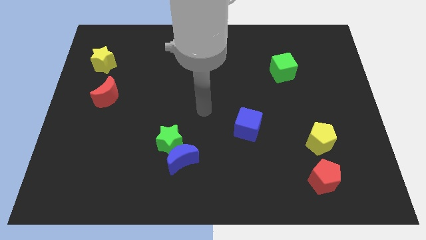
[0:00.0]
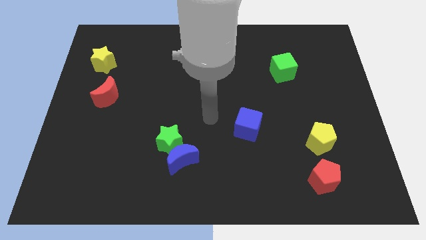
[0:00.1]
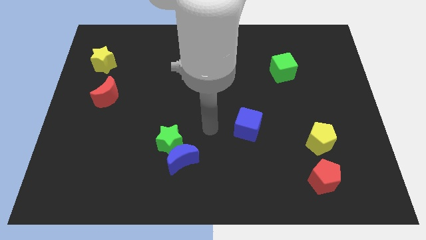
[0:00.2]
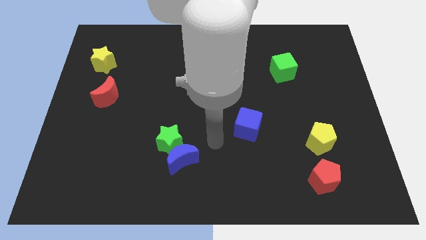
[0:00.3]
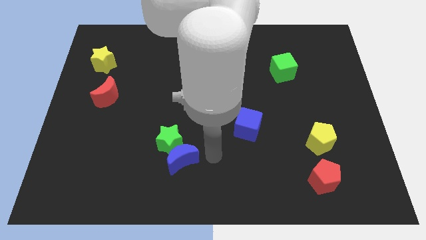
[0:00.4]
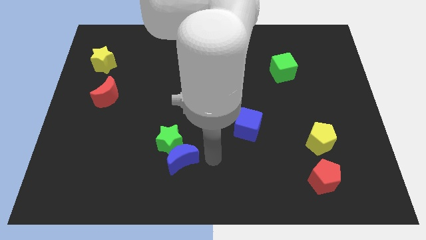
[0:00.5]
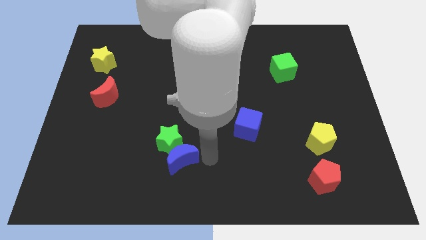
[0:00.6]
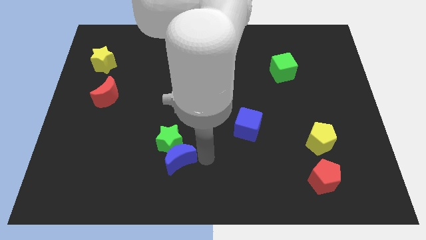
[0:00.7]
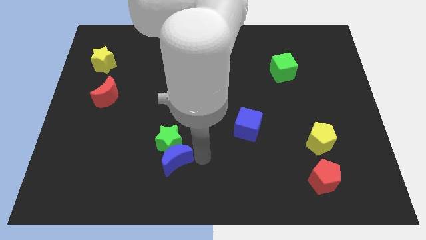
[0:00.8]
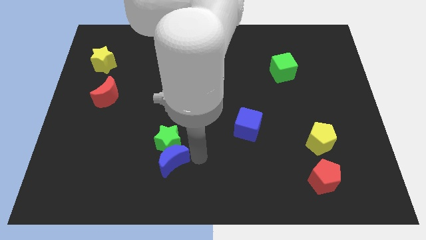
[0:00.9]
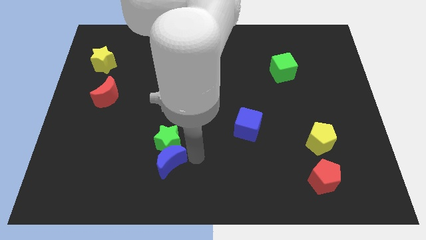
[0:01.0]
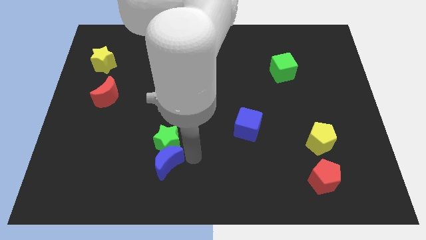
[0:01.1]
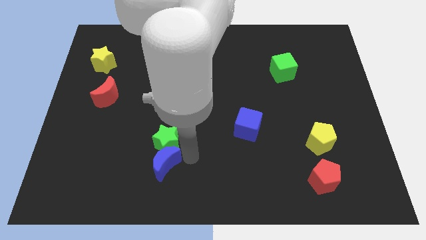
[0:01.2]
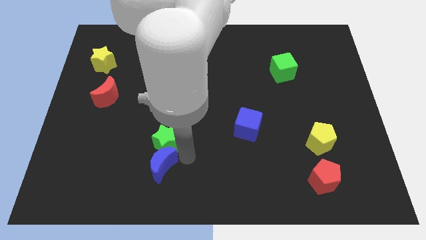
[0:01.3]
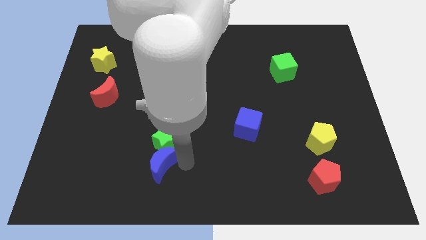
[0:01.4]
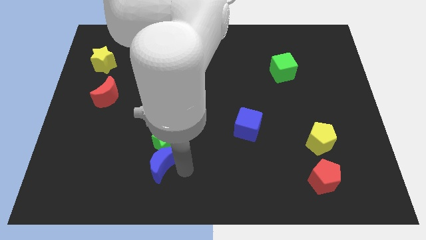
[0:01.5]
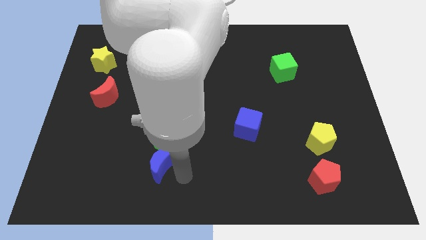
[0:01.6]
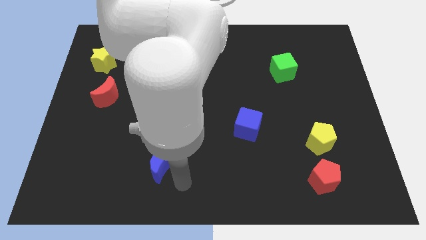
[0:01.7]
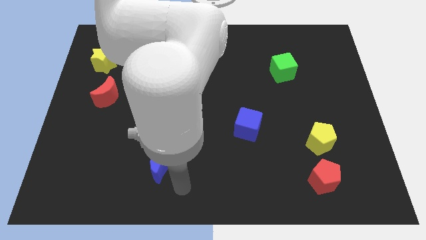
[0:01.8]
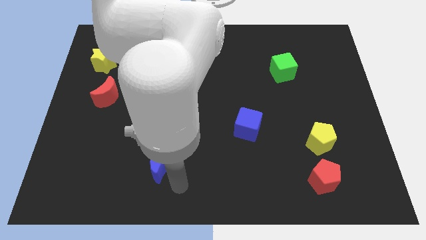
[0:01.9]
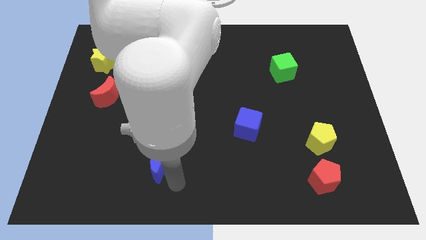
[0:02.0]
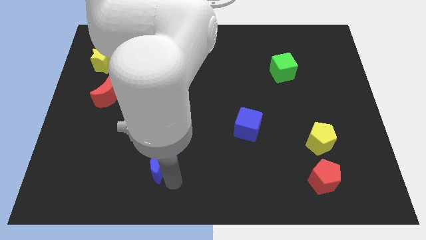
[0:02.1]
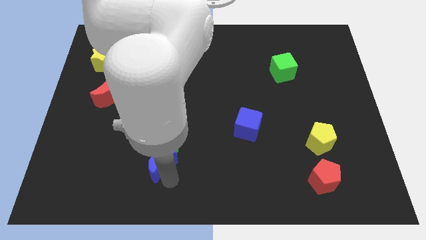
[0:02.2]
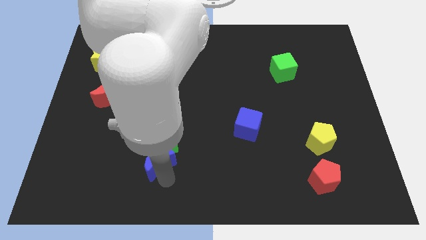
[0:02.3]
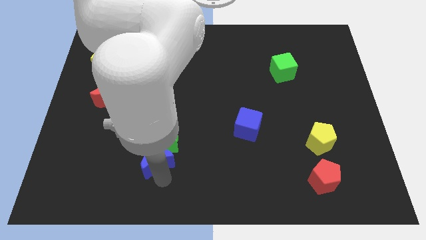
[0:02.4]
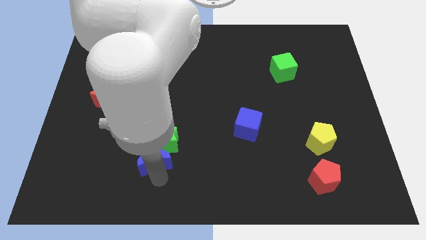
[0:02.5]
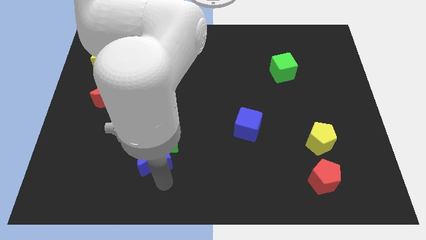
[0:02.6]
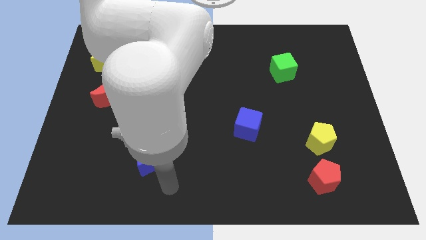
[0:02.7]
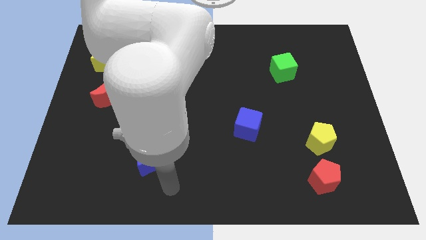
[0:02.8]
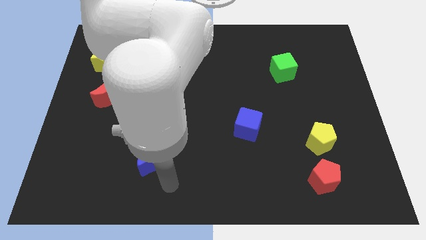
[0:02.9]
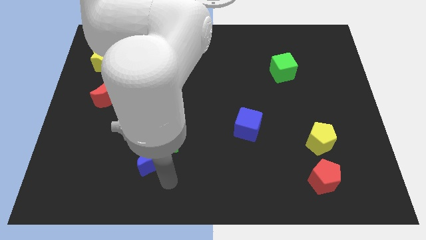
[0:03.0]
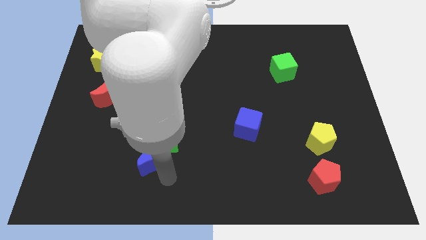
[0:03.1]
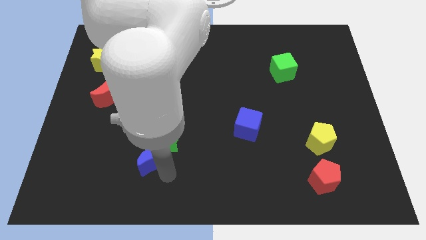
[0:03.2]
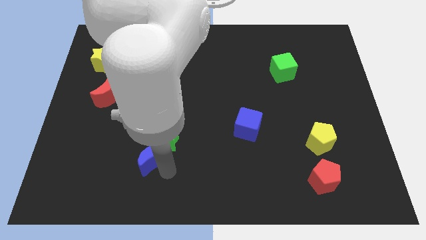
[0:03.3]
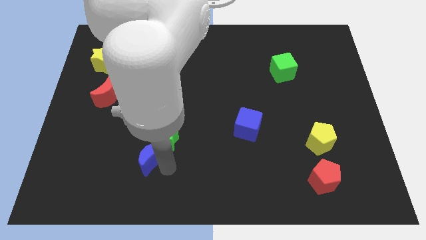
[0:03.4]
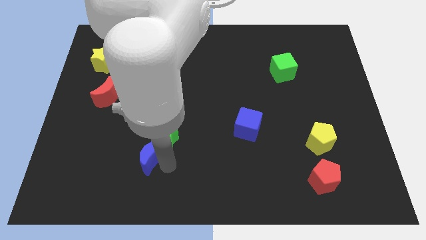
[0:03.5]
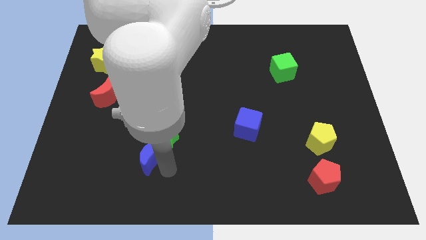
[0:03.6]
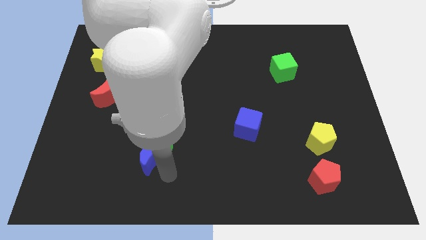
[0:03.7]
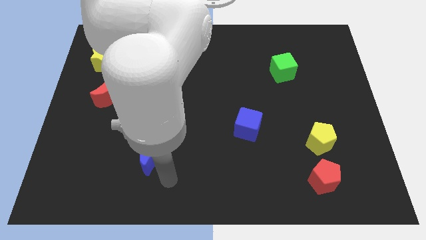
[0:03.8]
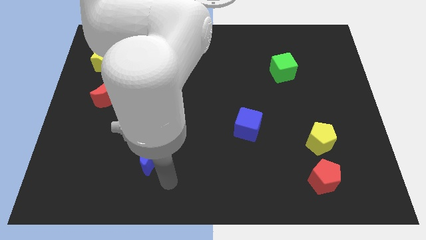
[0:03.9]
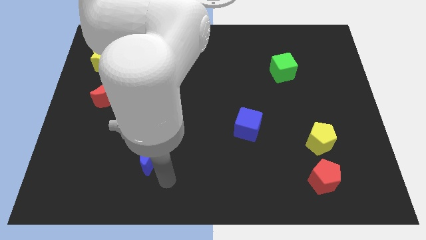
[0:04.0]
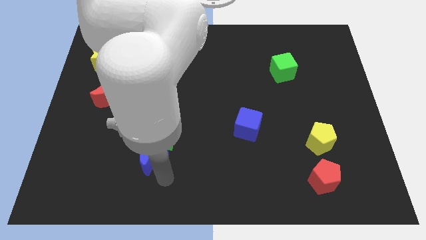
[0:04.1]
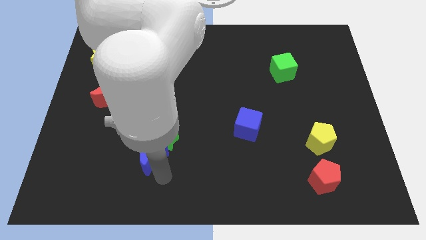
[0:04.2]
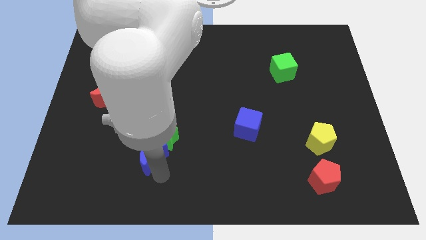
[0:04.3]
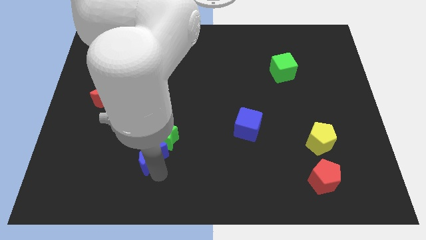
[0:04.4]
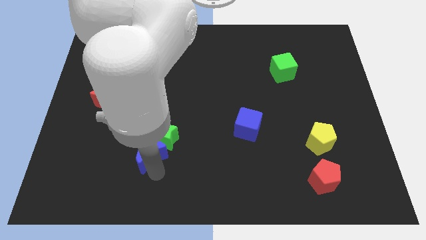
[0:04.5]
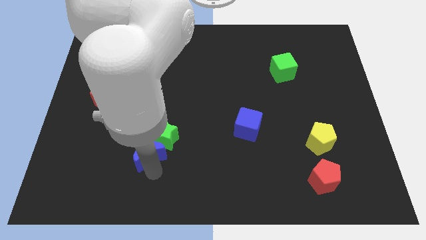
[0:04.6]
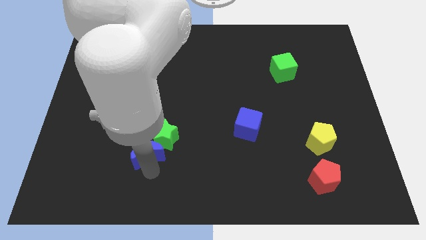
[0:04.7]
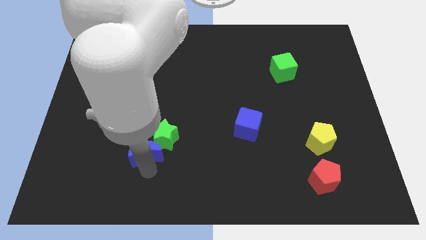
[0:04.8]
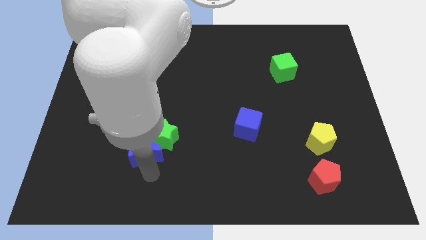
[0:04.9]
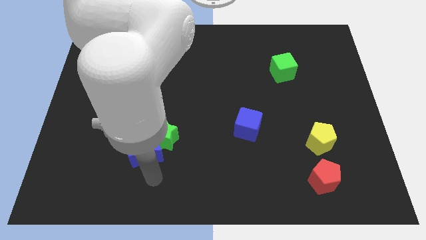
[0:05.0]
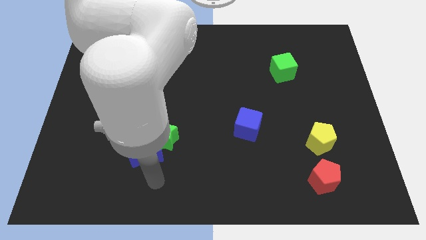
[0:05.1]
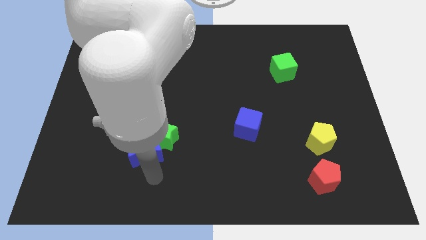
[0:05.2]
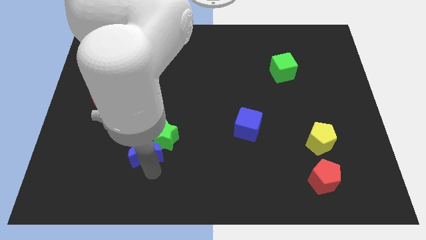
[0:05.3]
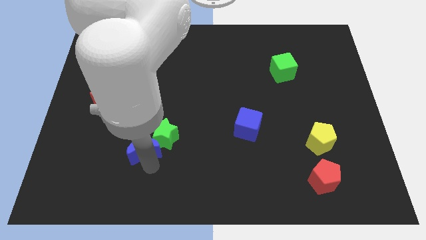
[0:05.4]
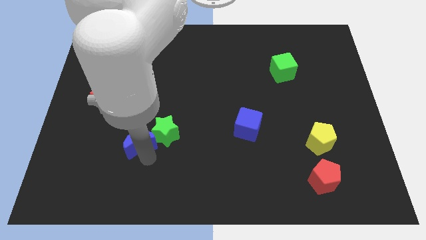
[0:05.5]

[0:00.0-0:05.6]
slightly move the blue moon up and to the left diagonally

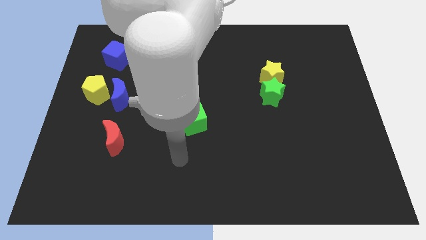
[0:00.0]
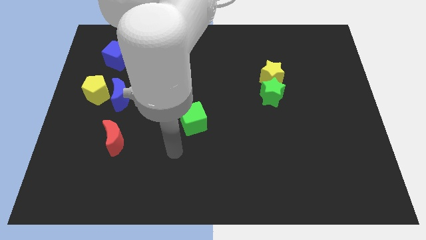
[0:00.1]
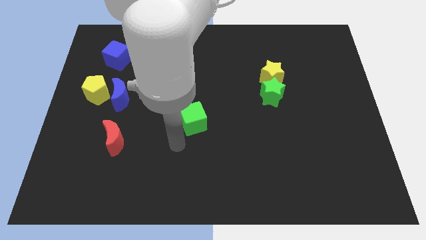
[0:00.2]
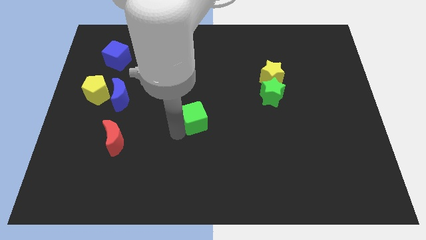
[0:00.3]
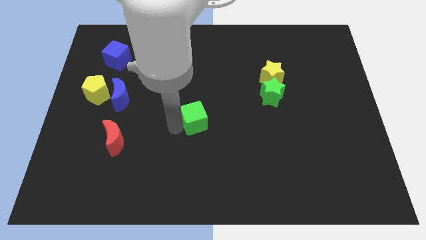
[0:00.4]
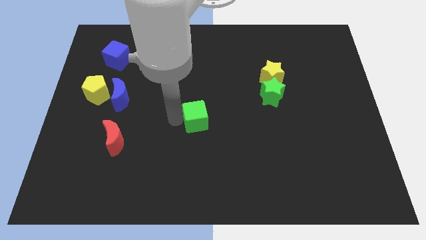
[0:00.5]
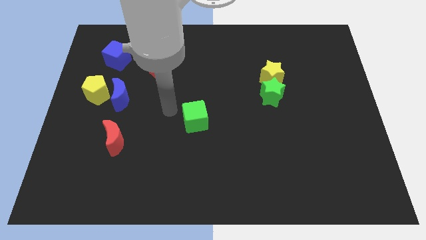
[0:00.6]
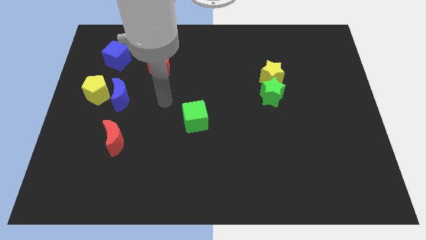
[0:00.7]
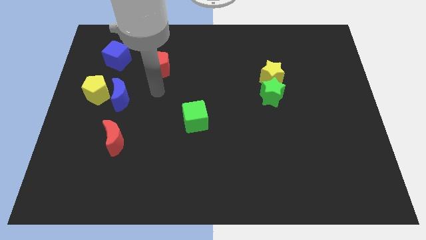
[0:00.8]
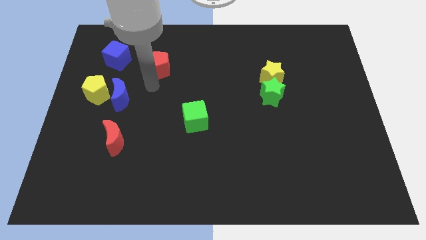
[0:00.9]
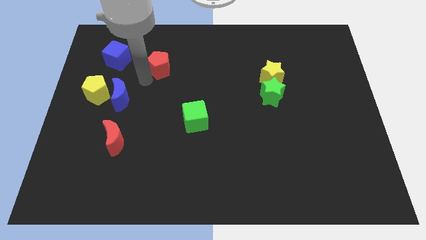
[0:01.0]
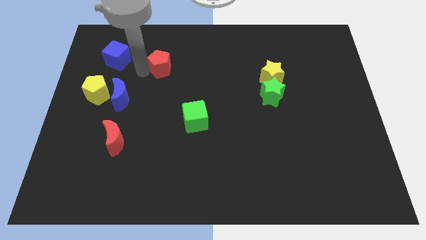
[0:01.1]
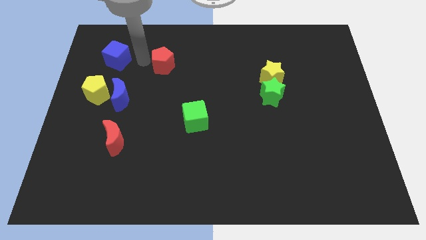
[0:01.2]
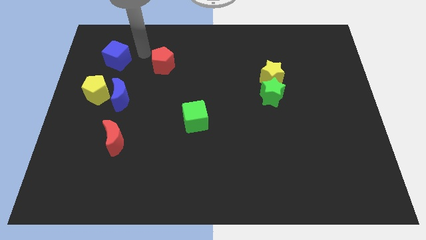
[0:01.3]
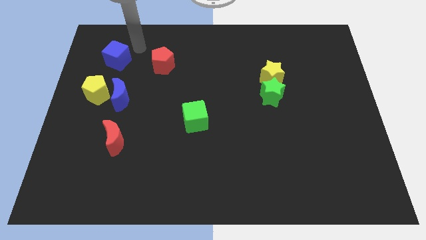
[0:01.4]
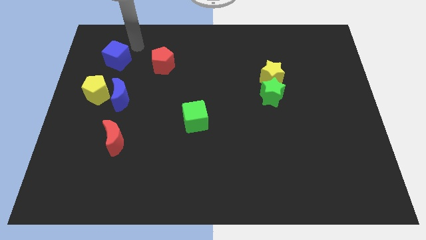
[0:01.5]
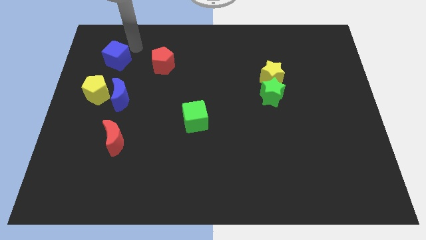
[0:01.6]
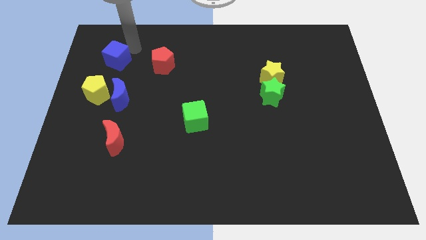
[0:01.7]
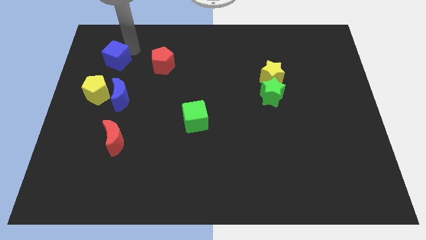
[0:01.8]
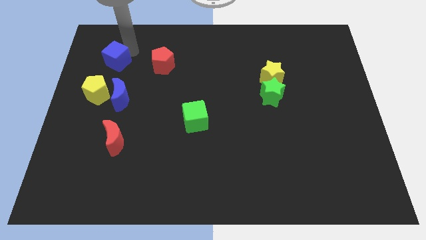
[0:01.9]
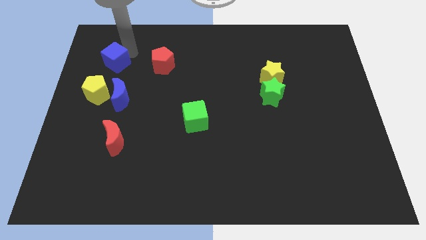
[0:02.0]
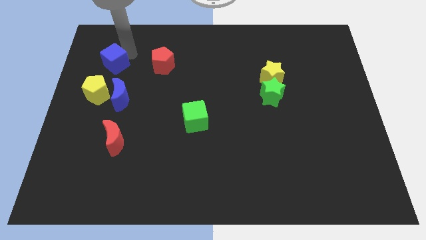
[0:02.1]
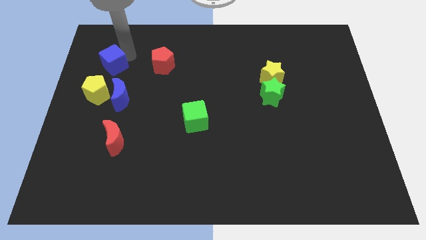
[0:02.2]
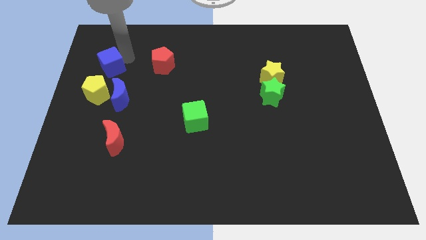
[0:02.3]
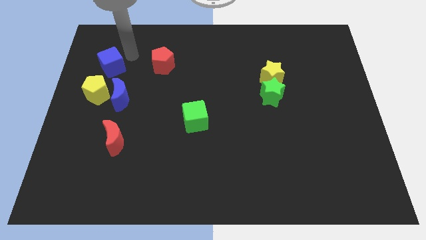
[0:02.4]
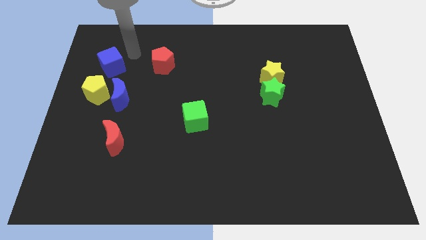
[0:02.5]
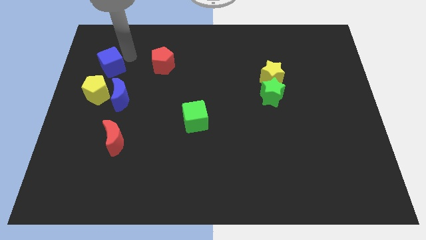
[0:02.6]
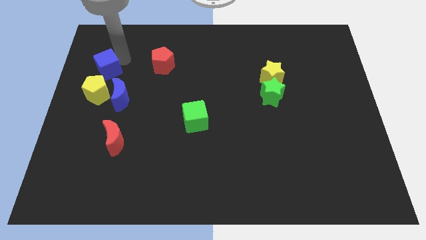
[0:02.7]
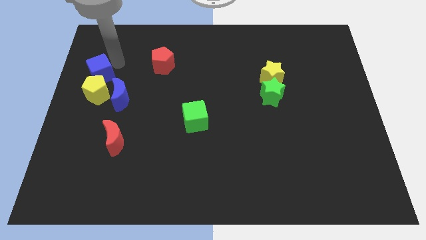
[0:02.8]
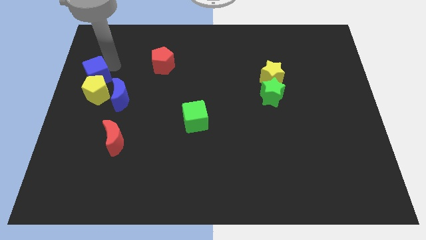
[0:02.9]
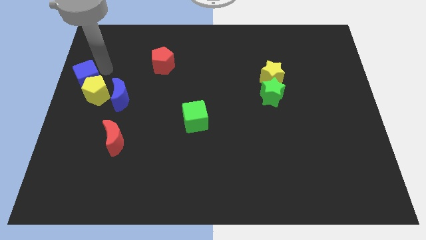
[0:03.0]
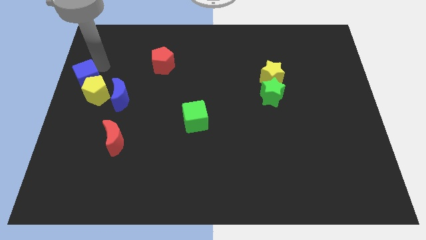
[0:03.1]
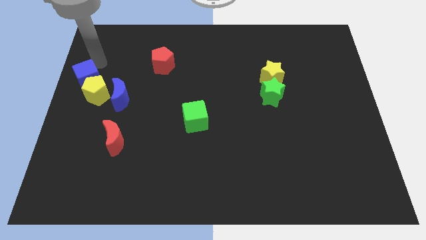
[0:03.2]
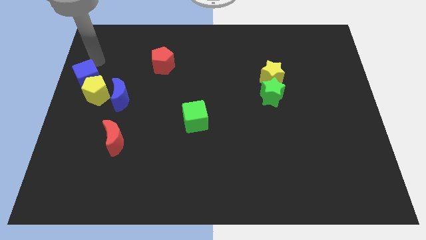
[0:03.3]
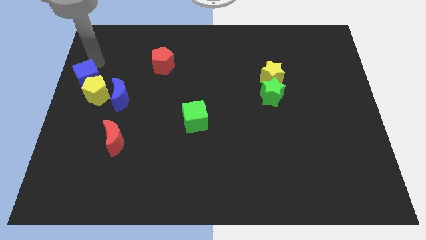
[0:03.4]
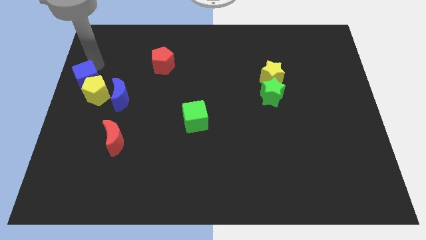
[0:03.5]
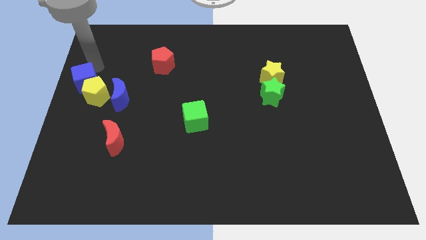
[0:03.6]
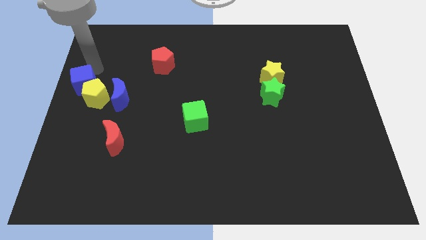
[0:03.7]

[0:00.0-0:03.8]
push the blue cube a little down
